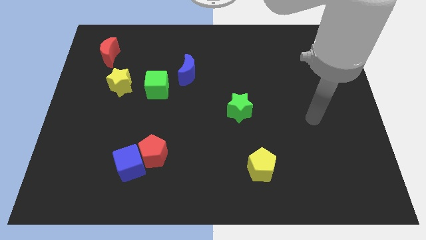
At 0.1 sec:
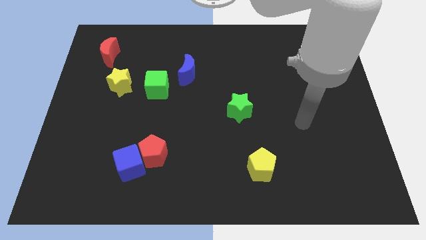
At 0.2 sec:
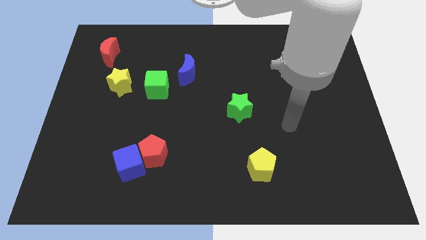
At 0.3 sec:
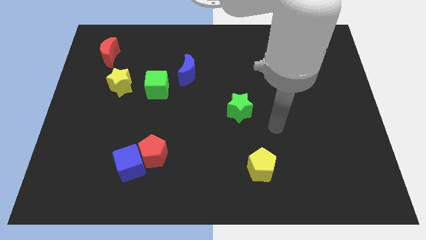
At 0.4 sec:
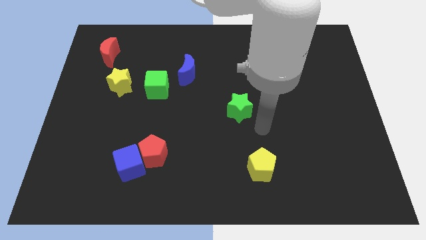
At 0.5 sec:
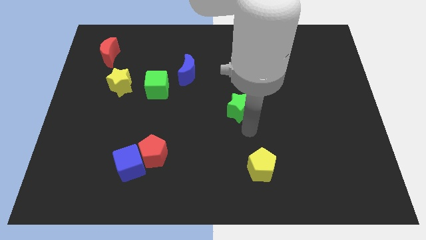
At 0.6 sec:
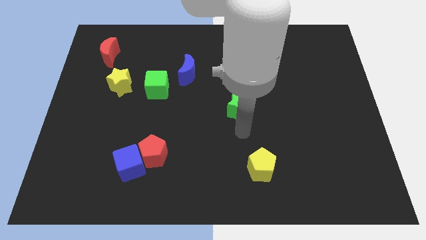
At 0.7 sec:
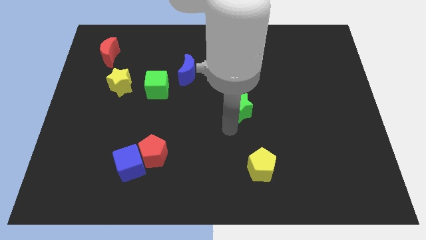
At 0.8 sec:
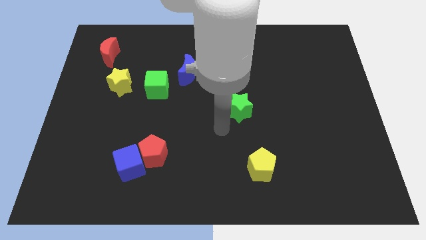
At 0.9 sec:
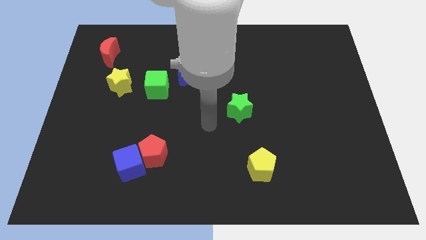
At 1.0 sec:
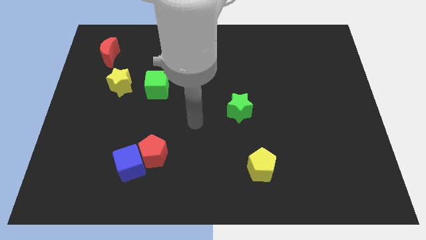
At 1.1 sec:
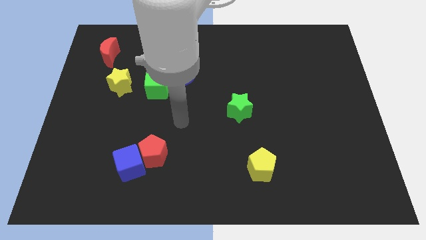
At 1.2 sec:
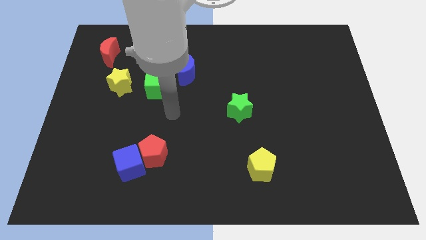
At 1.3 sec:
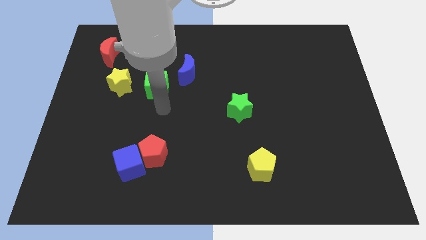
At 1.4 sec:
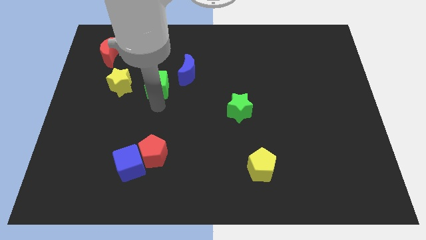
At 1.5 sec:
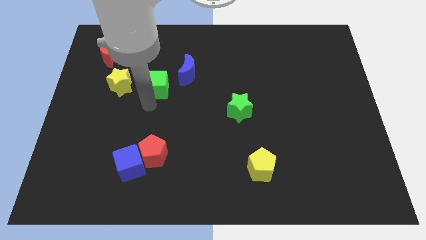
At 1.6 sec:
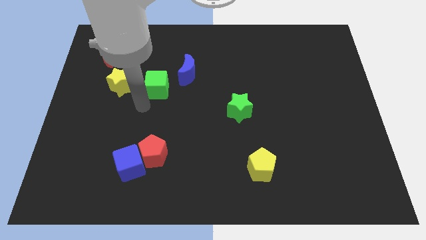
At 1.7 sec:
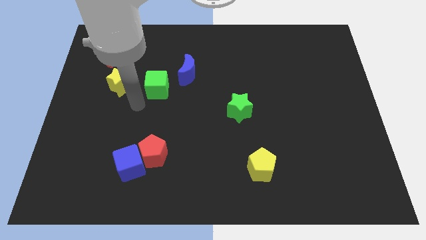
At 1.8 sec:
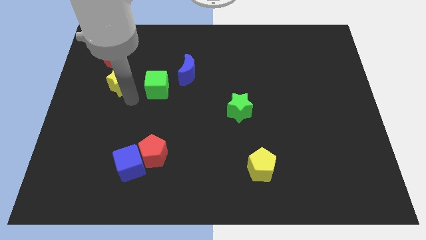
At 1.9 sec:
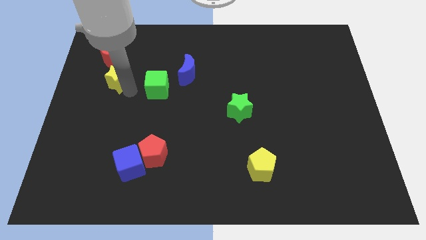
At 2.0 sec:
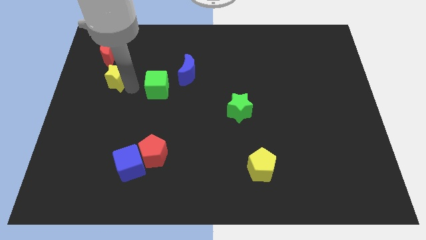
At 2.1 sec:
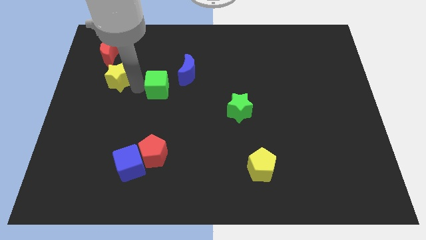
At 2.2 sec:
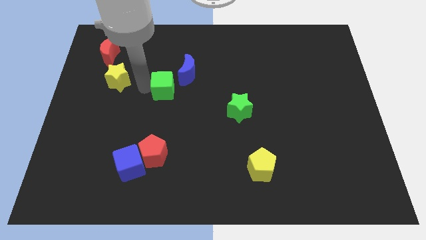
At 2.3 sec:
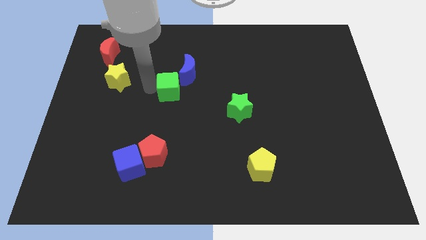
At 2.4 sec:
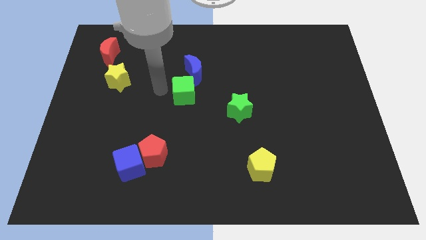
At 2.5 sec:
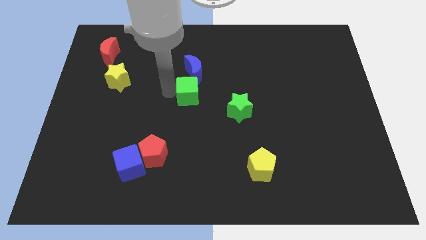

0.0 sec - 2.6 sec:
move the green cube right a bit

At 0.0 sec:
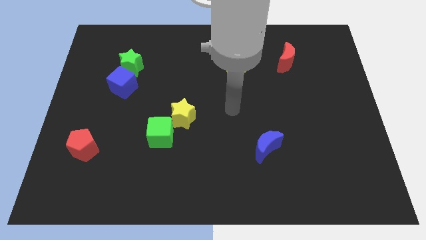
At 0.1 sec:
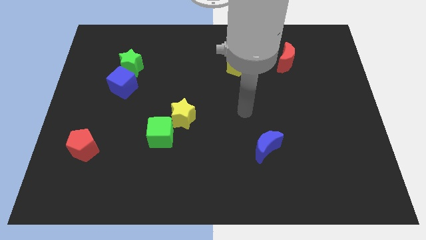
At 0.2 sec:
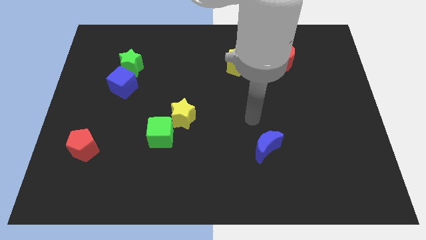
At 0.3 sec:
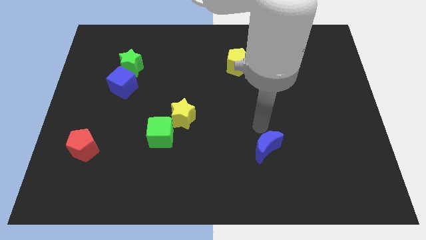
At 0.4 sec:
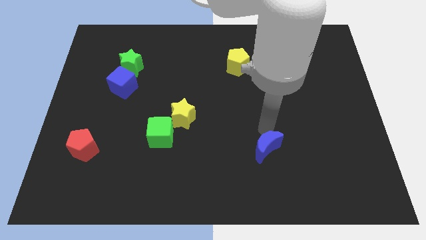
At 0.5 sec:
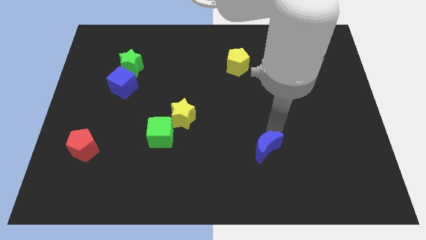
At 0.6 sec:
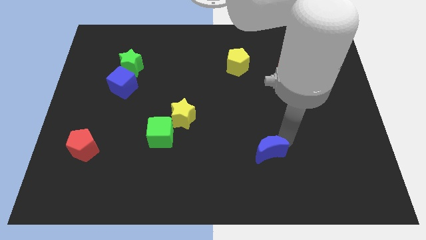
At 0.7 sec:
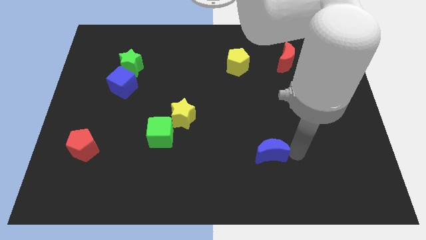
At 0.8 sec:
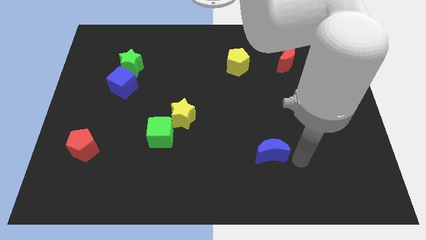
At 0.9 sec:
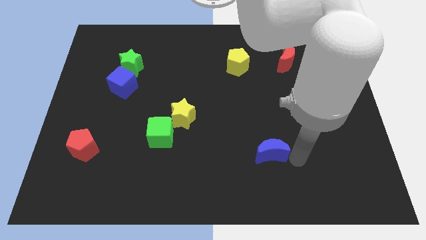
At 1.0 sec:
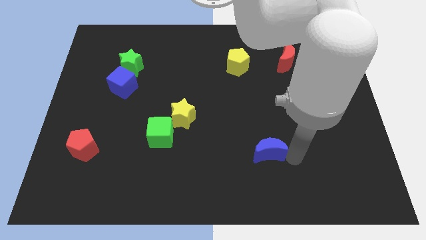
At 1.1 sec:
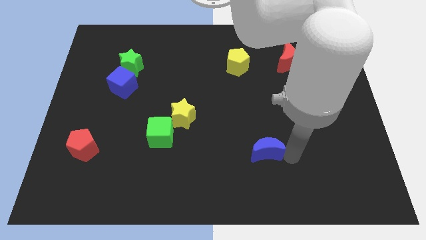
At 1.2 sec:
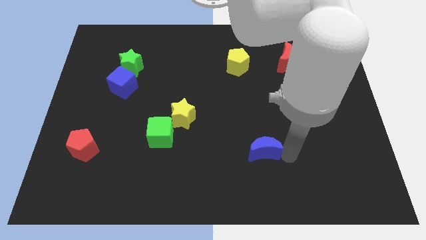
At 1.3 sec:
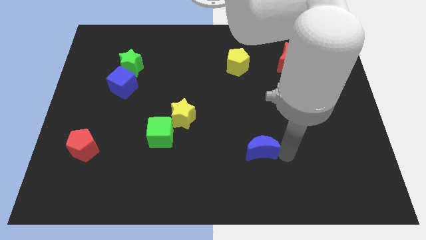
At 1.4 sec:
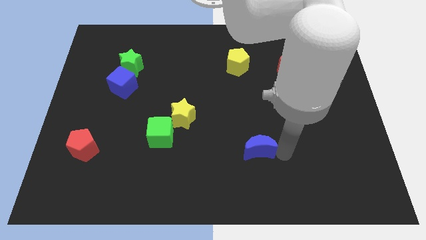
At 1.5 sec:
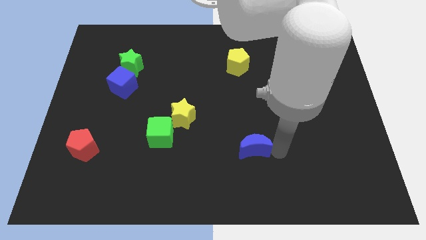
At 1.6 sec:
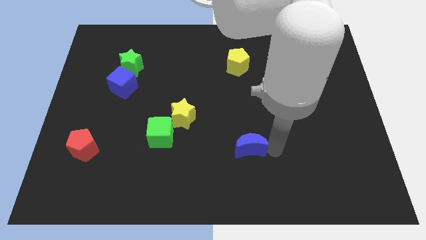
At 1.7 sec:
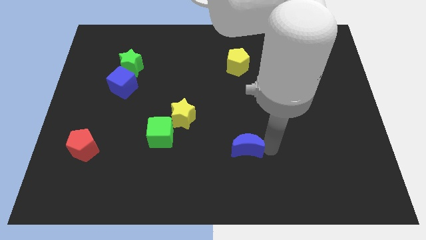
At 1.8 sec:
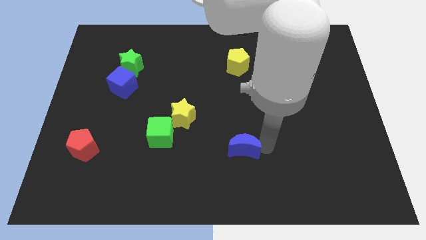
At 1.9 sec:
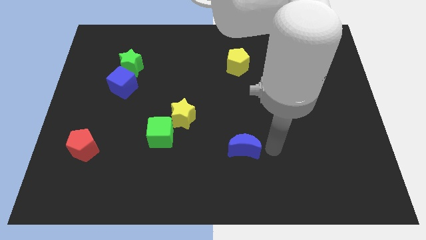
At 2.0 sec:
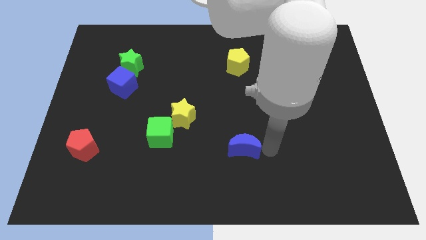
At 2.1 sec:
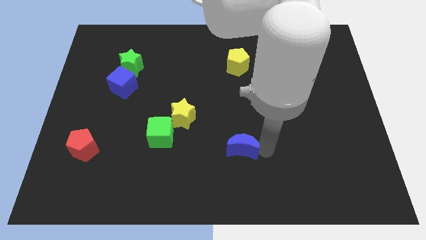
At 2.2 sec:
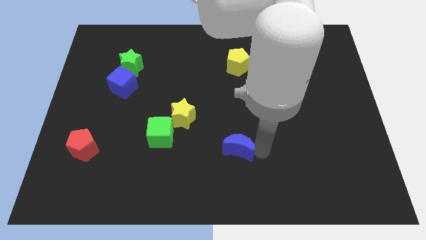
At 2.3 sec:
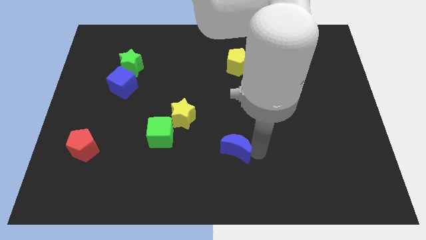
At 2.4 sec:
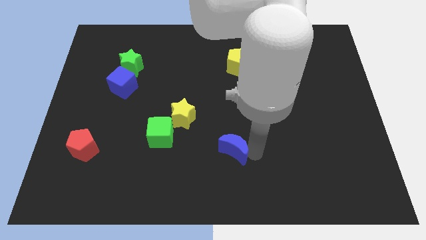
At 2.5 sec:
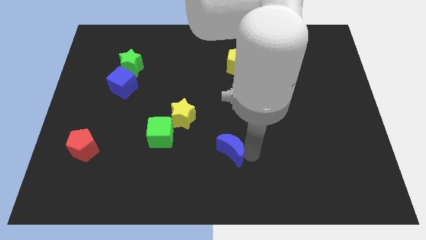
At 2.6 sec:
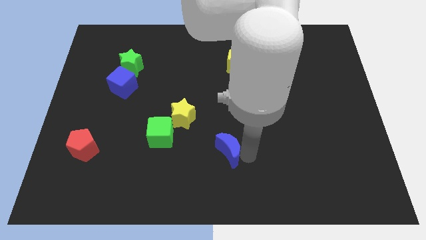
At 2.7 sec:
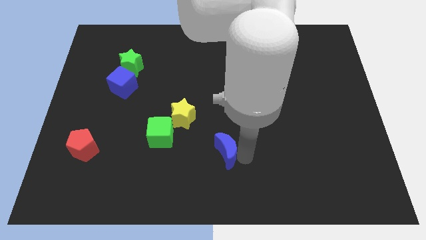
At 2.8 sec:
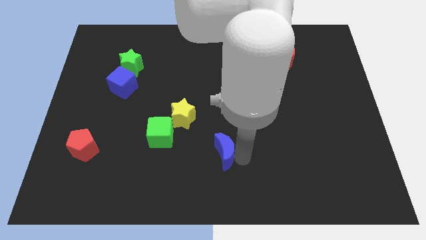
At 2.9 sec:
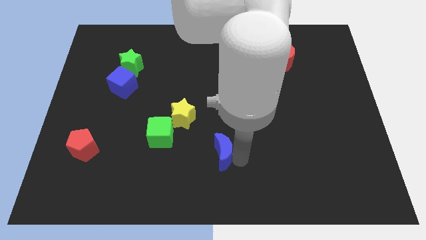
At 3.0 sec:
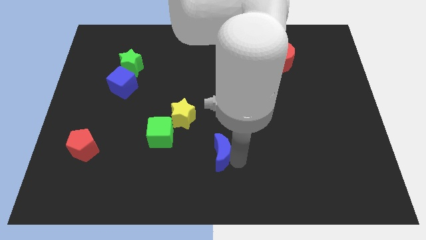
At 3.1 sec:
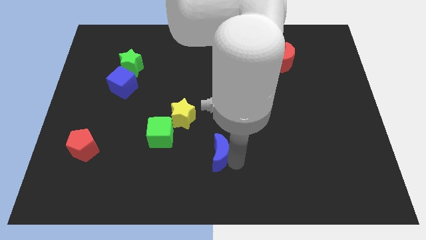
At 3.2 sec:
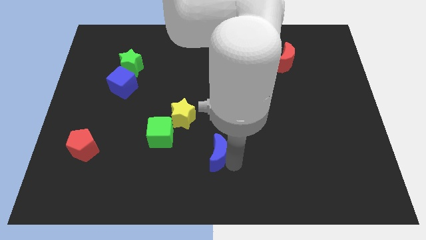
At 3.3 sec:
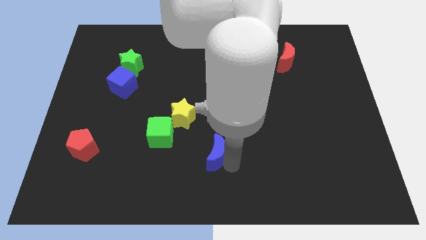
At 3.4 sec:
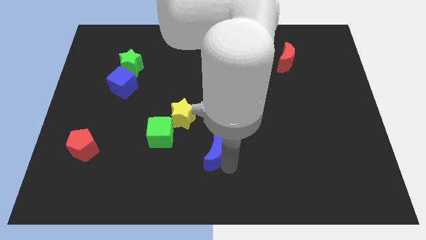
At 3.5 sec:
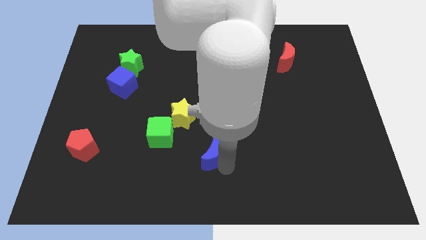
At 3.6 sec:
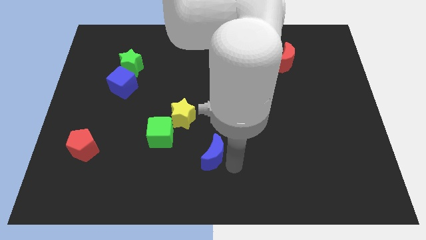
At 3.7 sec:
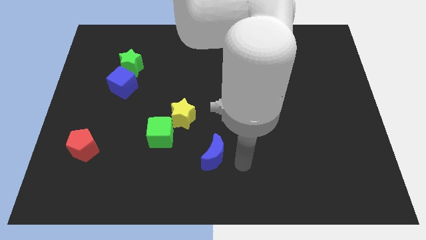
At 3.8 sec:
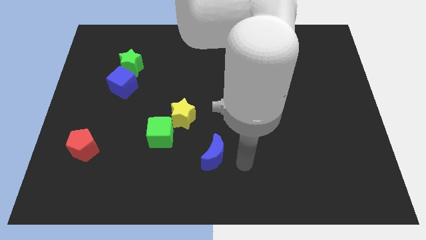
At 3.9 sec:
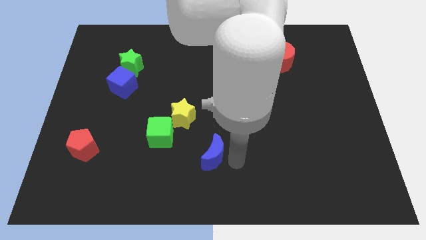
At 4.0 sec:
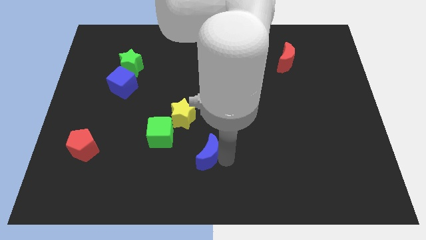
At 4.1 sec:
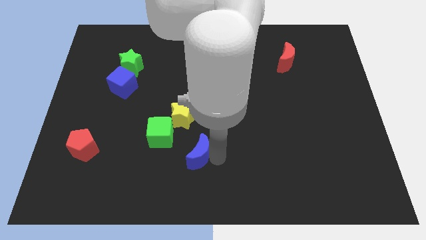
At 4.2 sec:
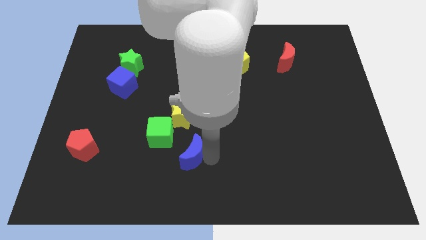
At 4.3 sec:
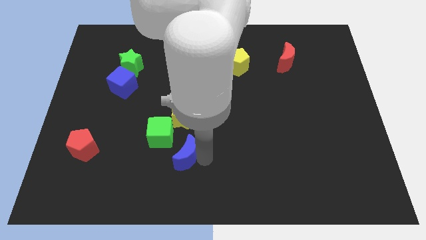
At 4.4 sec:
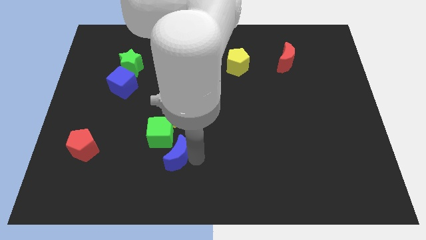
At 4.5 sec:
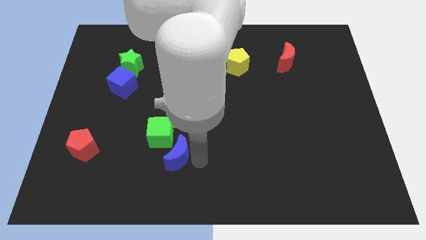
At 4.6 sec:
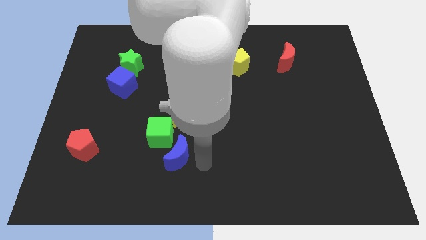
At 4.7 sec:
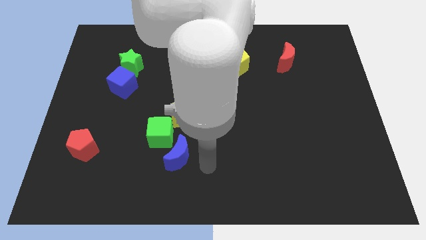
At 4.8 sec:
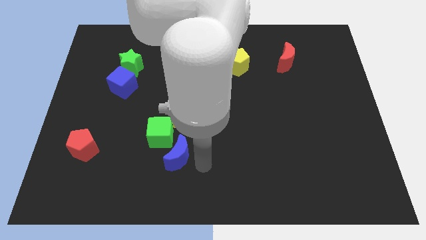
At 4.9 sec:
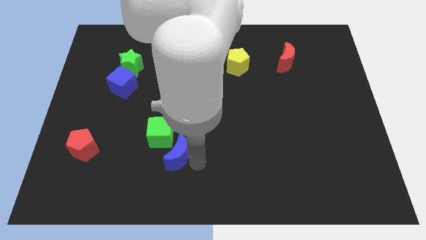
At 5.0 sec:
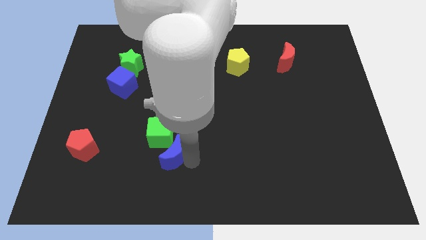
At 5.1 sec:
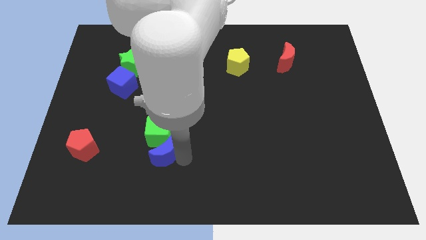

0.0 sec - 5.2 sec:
slide the blue moon left

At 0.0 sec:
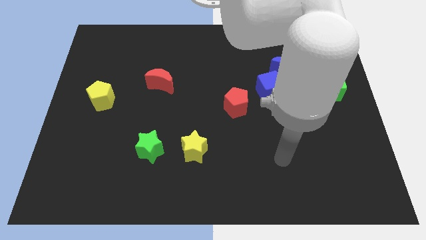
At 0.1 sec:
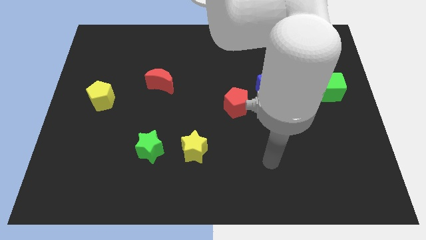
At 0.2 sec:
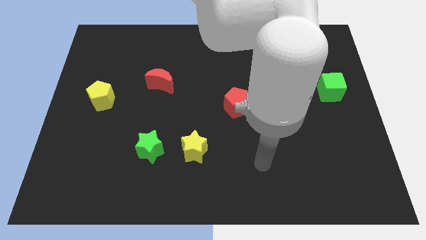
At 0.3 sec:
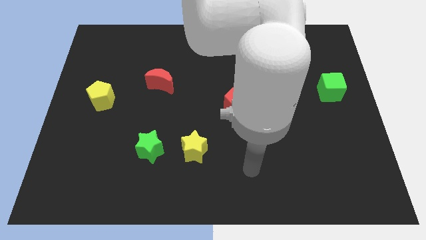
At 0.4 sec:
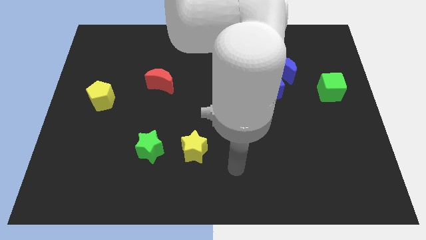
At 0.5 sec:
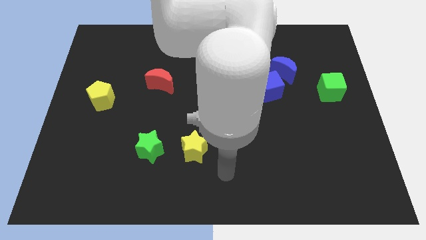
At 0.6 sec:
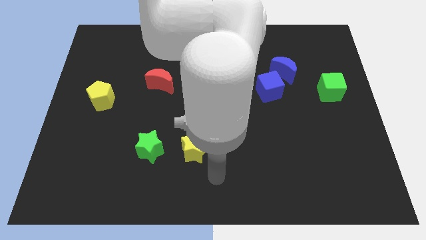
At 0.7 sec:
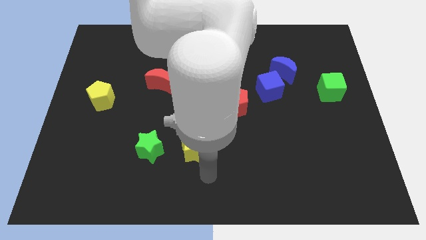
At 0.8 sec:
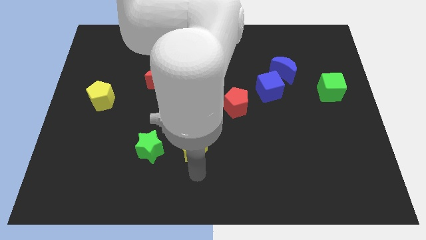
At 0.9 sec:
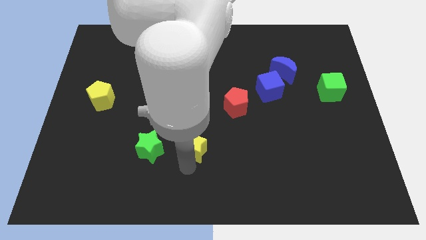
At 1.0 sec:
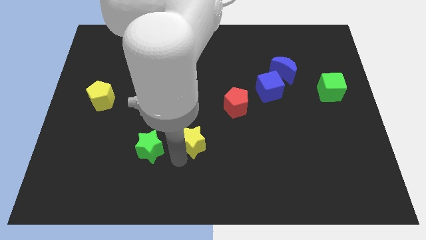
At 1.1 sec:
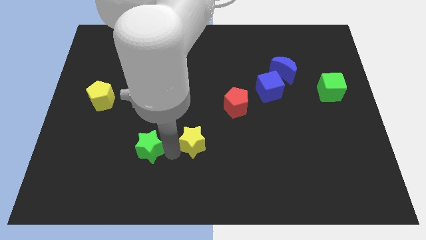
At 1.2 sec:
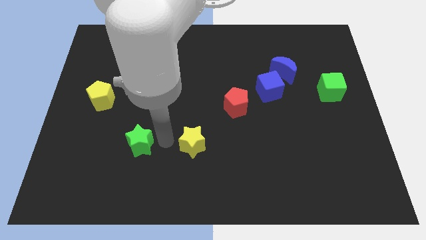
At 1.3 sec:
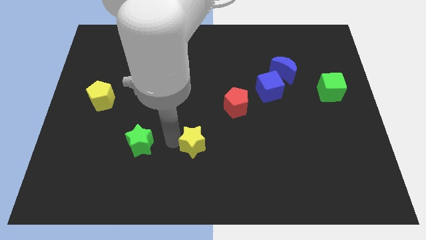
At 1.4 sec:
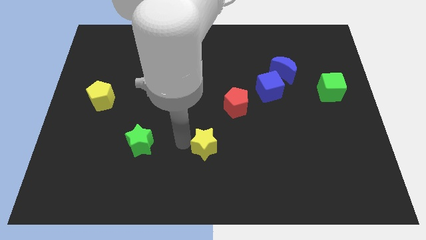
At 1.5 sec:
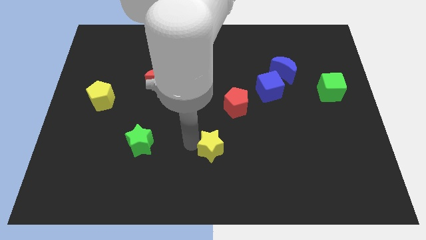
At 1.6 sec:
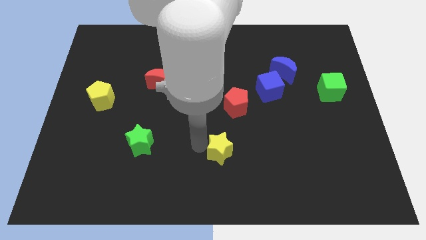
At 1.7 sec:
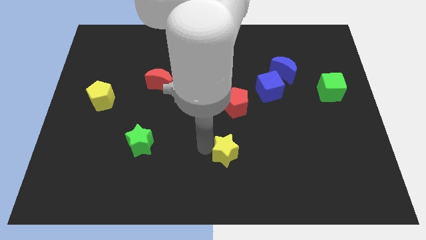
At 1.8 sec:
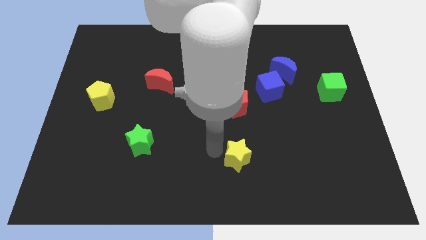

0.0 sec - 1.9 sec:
slightly slide the yellow star to the right
